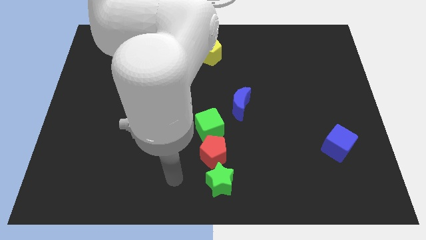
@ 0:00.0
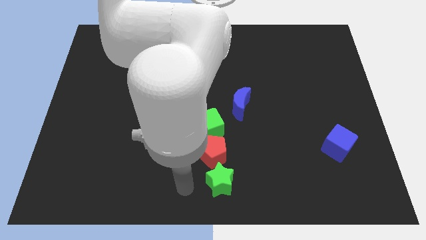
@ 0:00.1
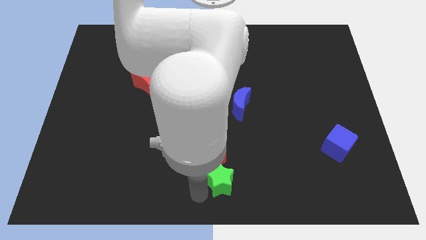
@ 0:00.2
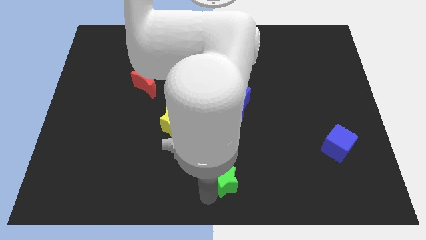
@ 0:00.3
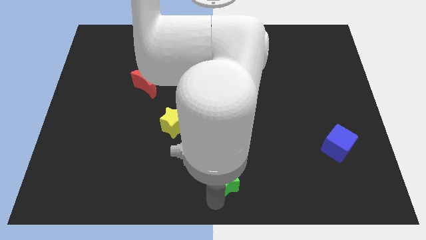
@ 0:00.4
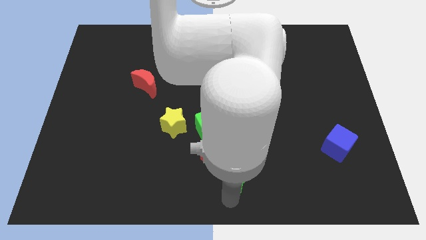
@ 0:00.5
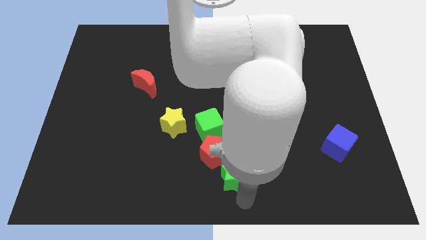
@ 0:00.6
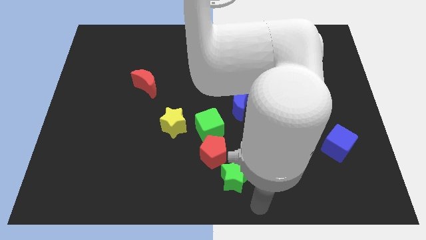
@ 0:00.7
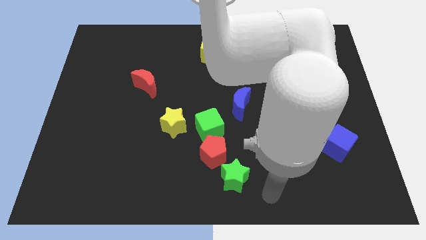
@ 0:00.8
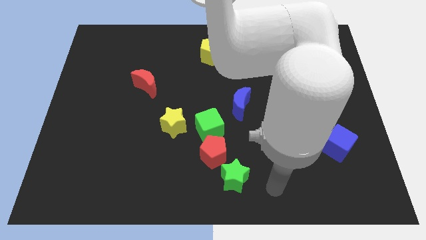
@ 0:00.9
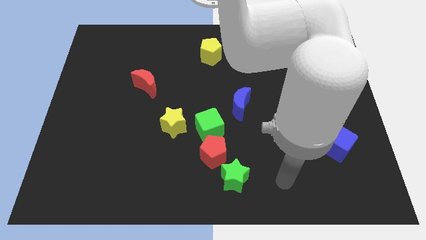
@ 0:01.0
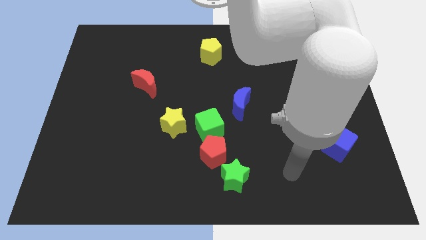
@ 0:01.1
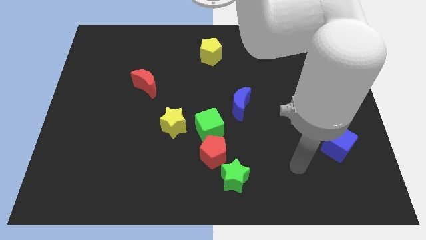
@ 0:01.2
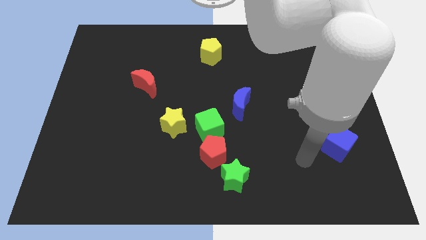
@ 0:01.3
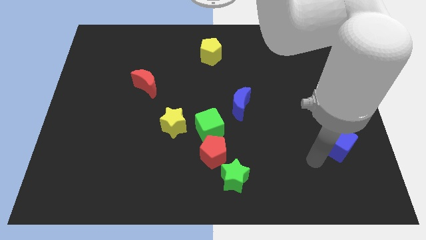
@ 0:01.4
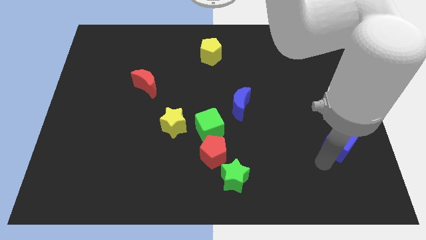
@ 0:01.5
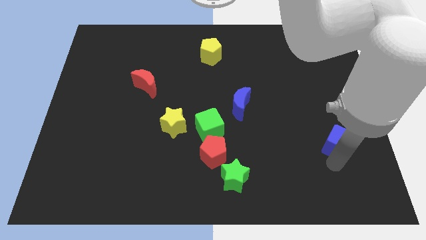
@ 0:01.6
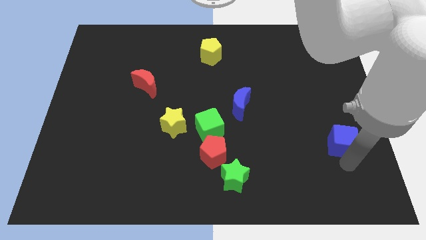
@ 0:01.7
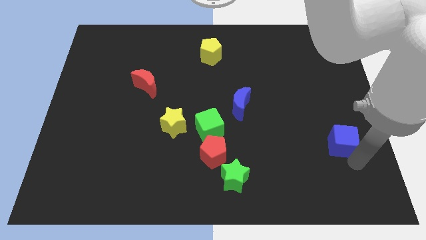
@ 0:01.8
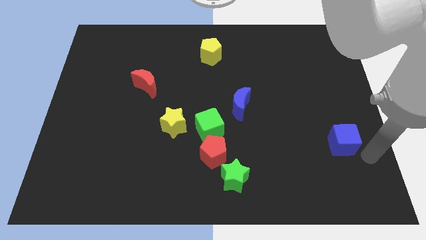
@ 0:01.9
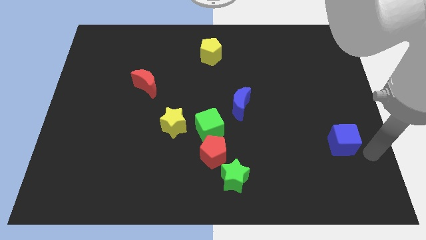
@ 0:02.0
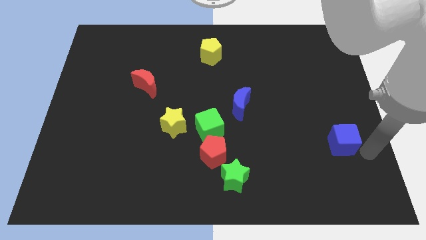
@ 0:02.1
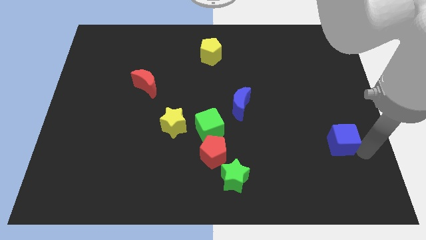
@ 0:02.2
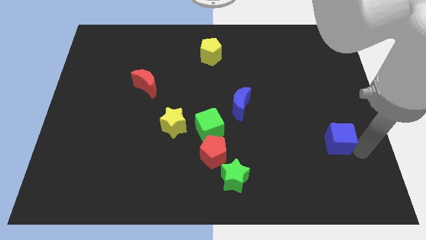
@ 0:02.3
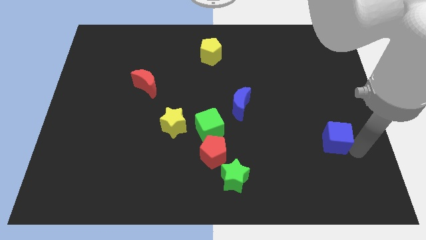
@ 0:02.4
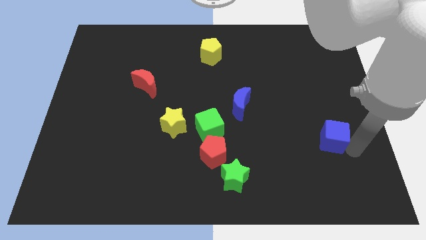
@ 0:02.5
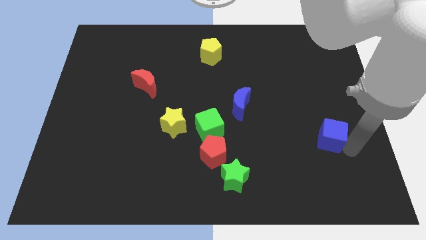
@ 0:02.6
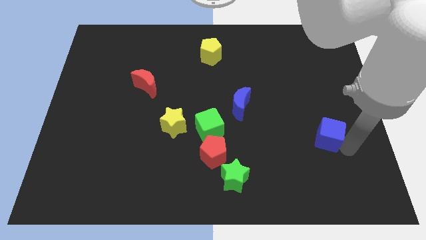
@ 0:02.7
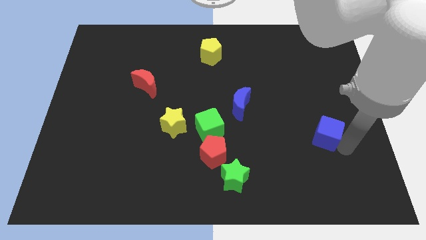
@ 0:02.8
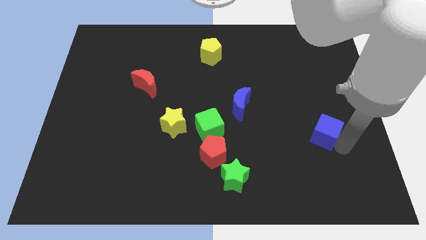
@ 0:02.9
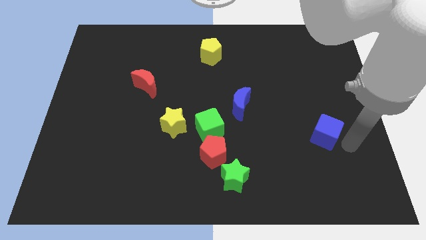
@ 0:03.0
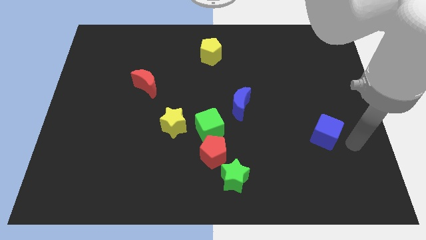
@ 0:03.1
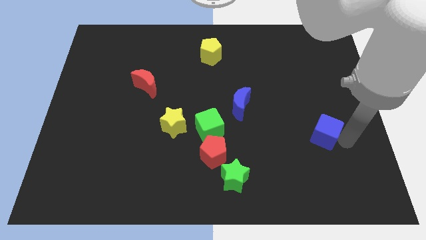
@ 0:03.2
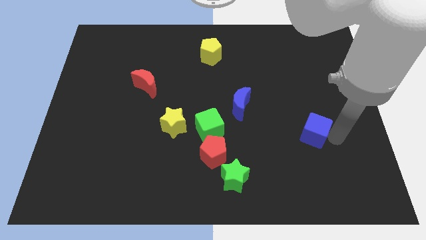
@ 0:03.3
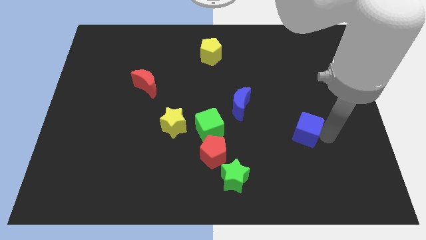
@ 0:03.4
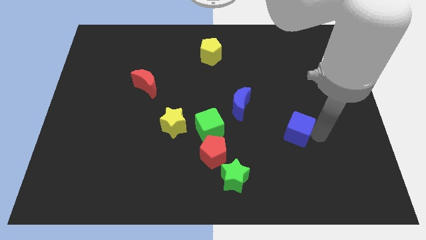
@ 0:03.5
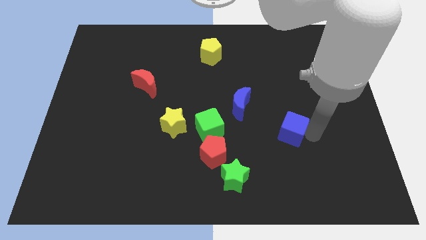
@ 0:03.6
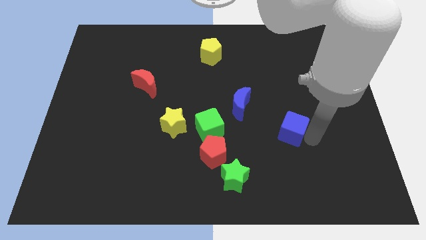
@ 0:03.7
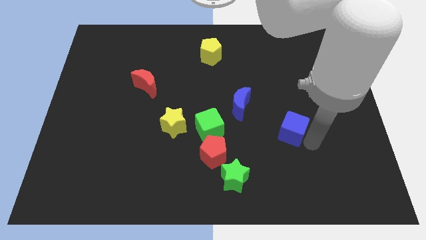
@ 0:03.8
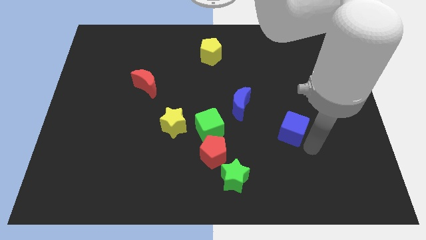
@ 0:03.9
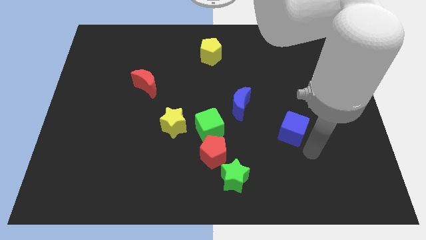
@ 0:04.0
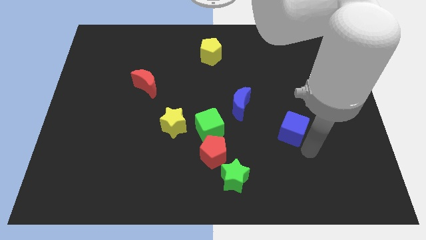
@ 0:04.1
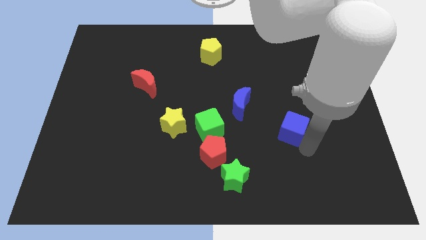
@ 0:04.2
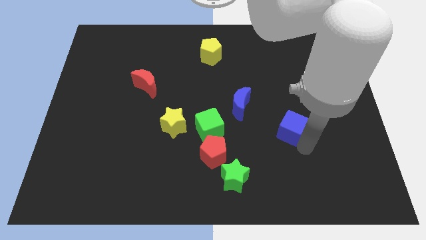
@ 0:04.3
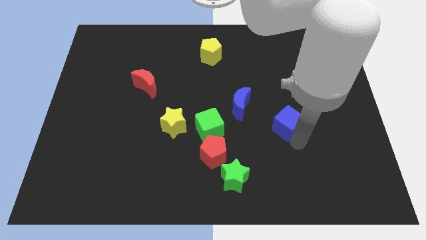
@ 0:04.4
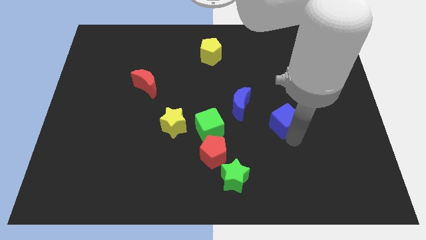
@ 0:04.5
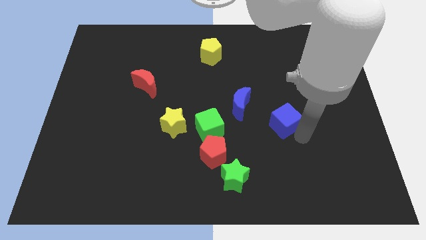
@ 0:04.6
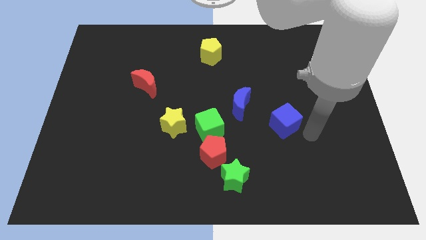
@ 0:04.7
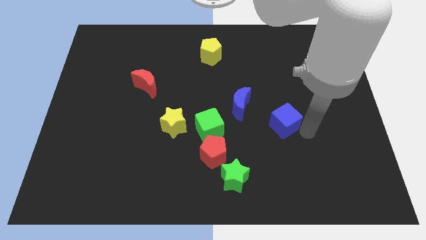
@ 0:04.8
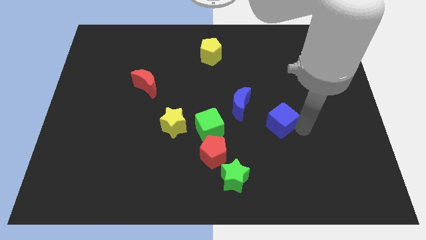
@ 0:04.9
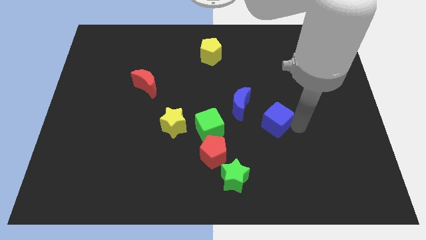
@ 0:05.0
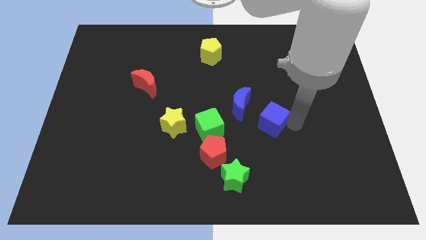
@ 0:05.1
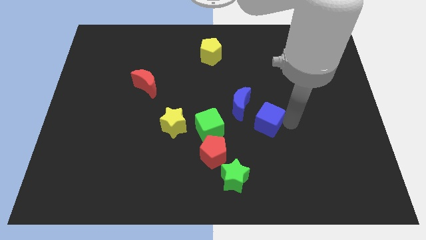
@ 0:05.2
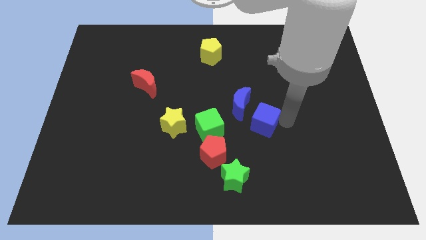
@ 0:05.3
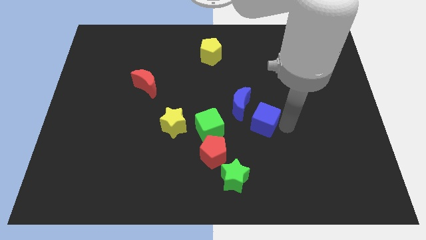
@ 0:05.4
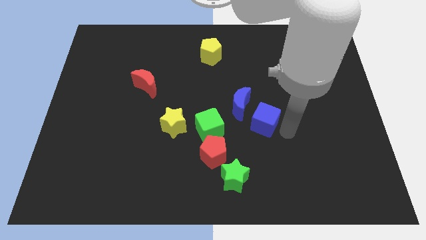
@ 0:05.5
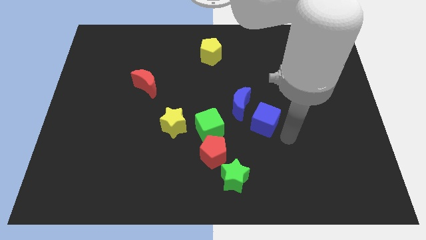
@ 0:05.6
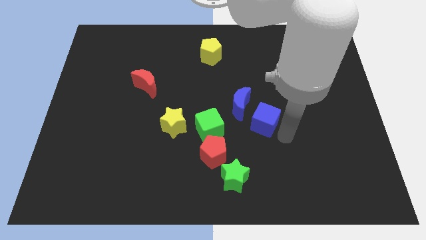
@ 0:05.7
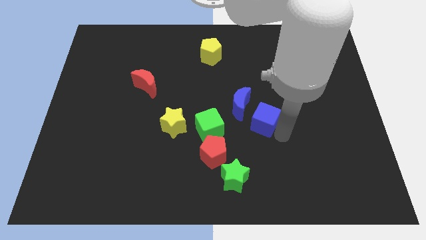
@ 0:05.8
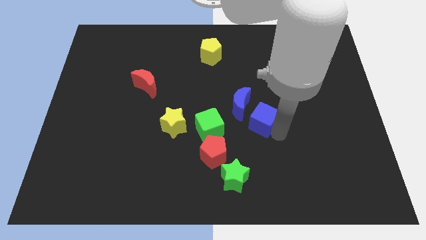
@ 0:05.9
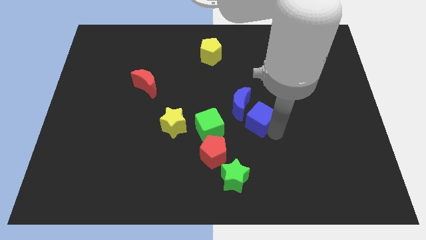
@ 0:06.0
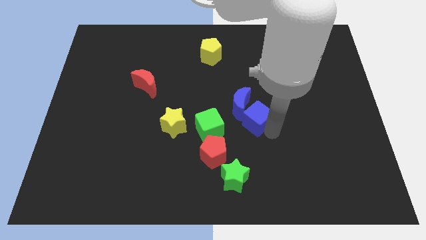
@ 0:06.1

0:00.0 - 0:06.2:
move the blue cube close to the blue moon
